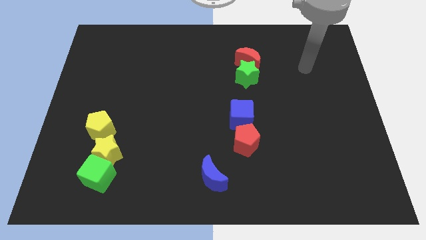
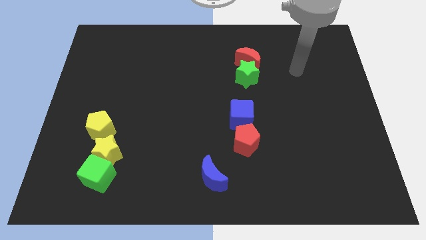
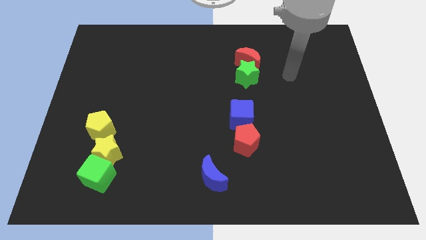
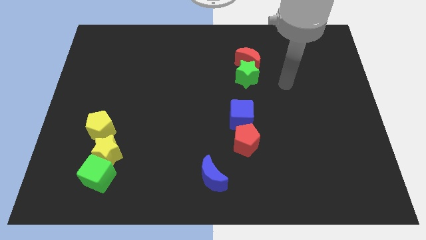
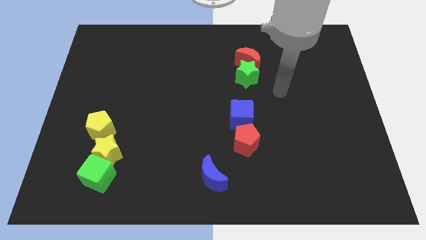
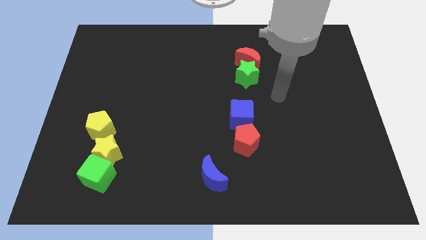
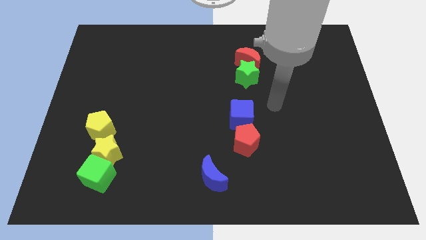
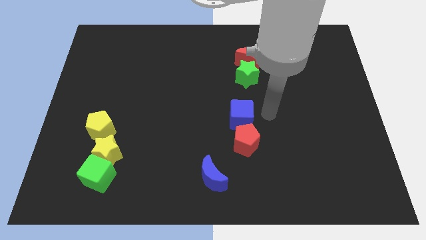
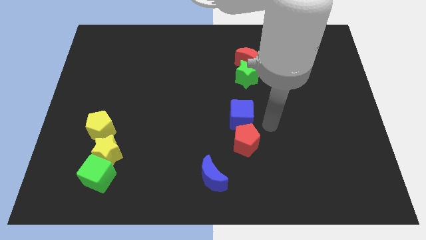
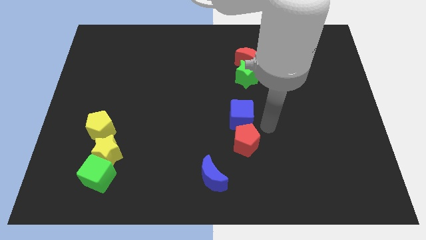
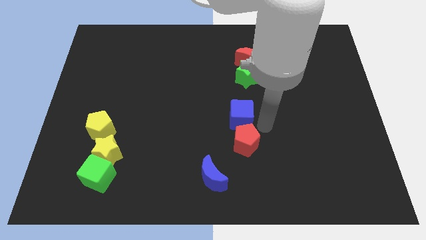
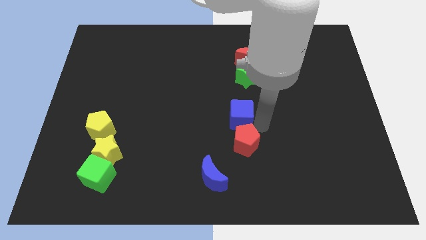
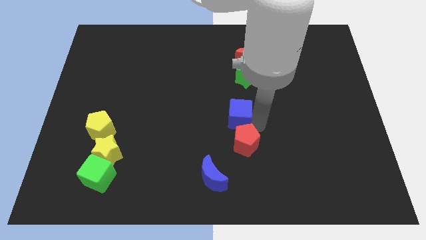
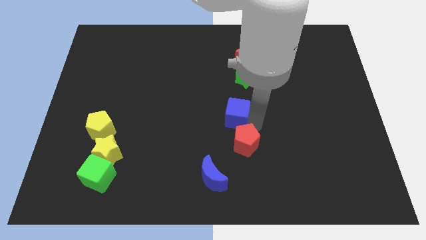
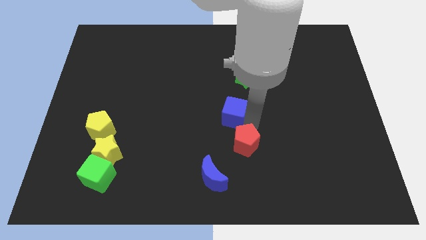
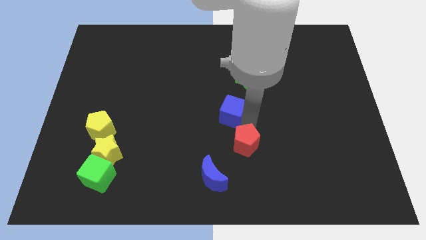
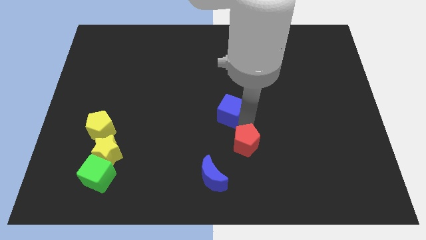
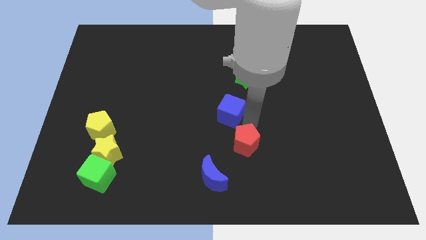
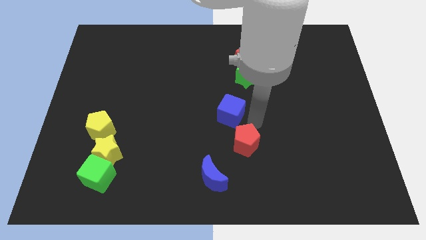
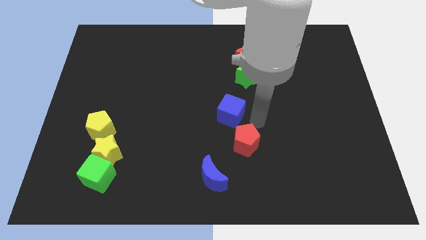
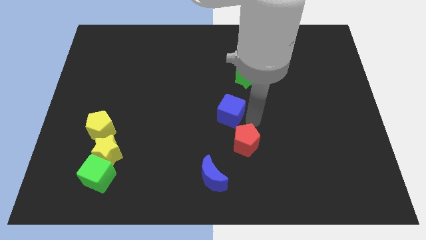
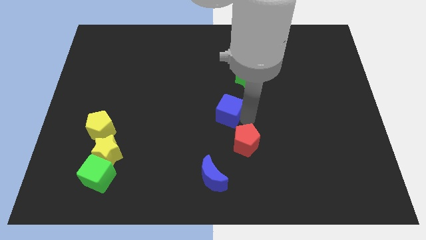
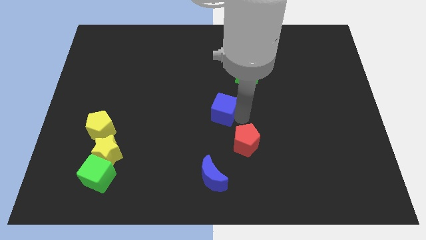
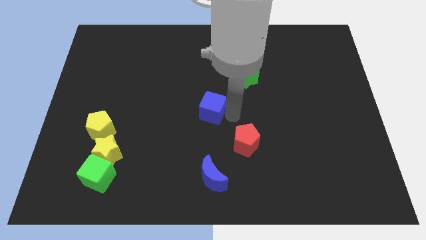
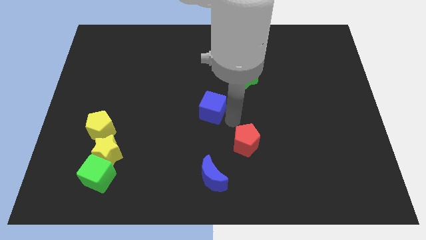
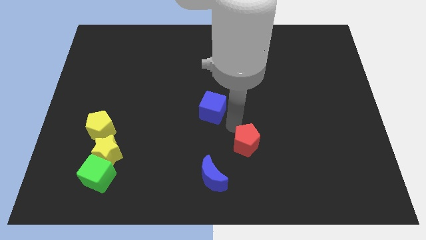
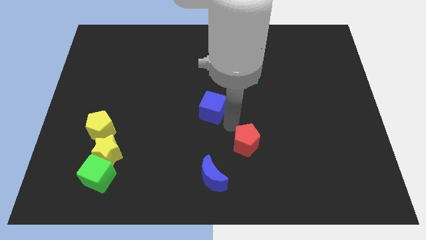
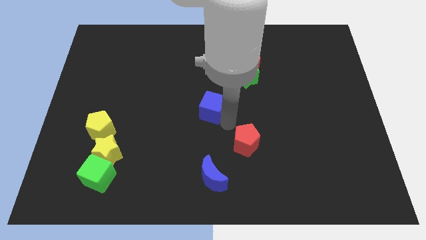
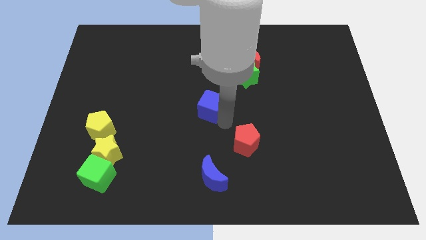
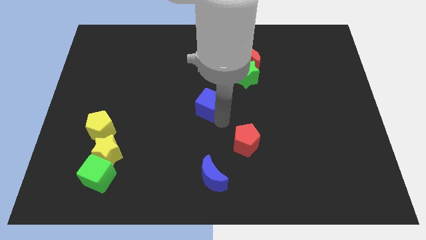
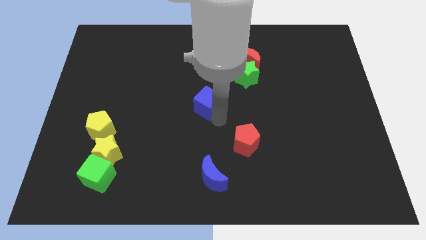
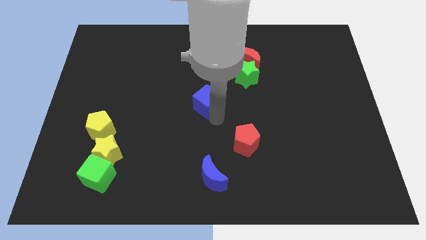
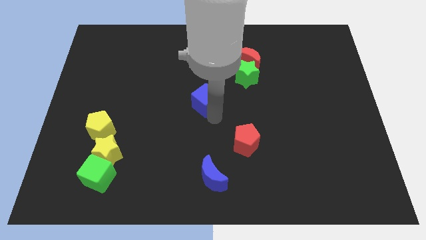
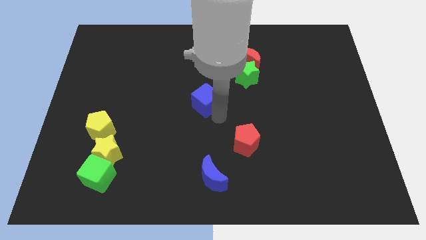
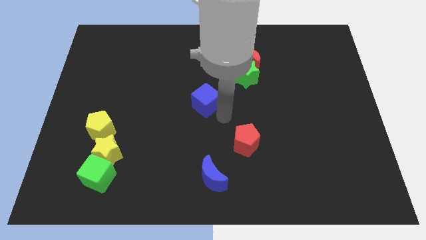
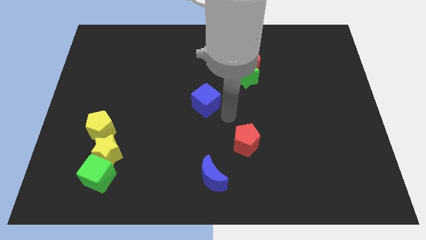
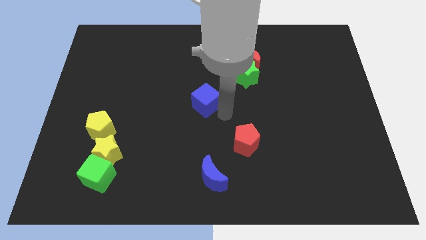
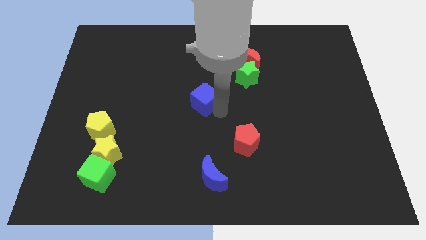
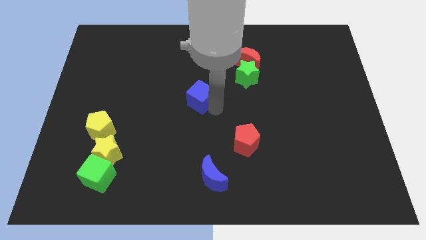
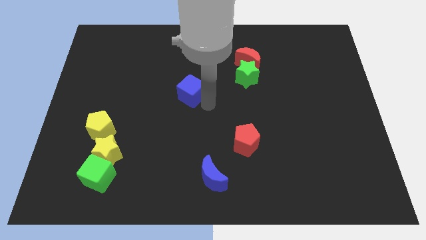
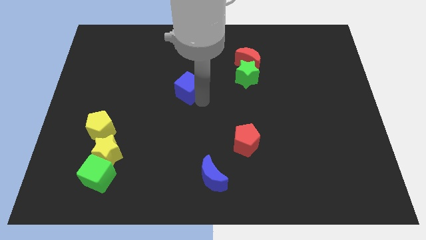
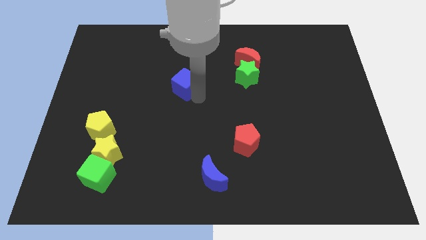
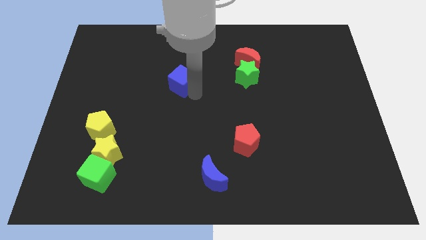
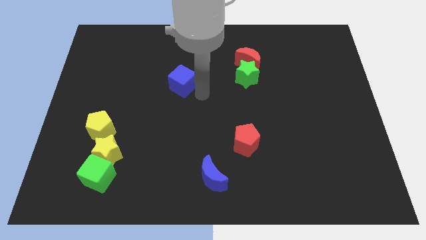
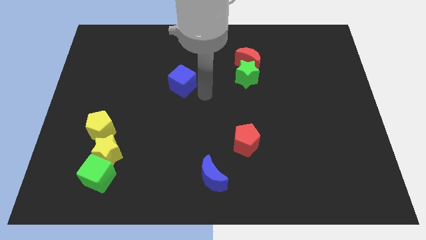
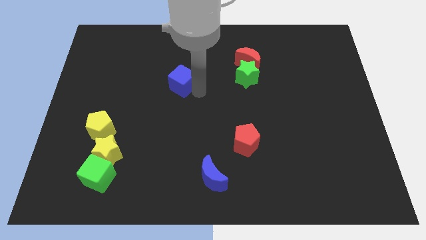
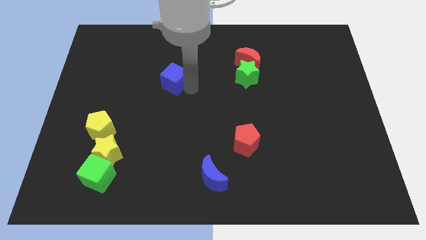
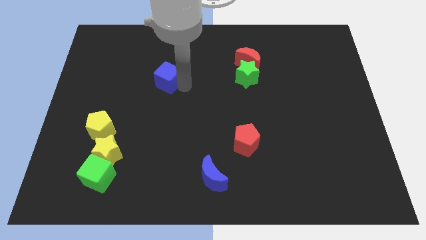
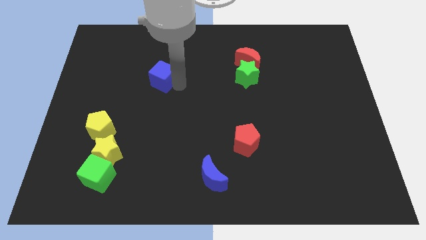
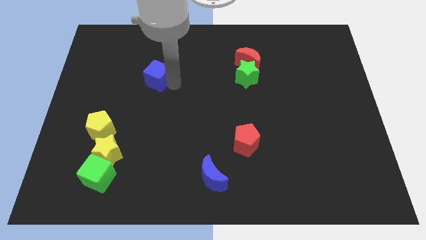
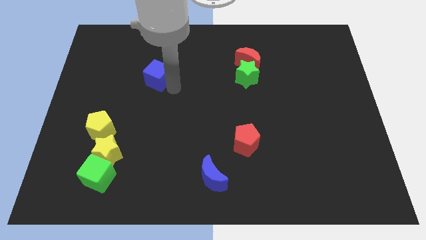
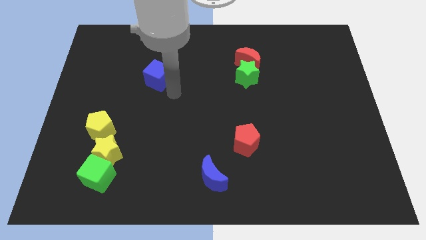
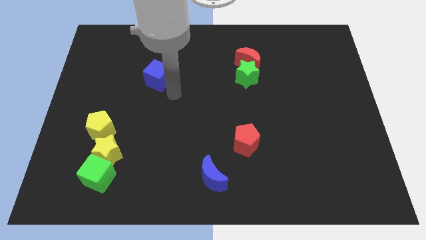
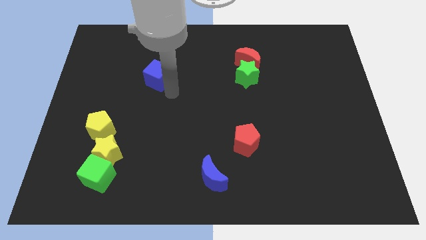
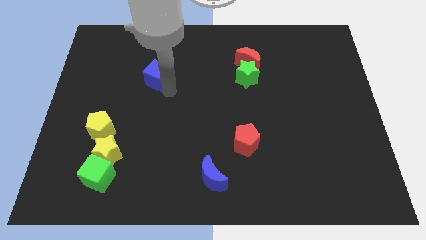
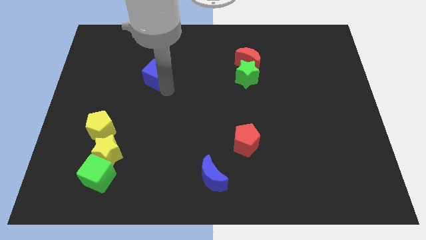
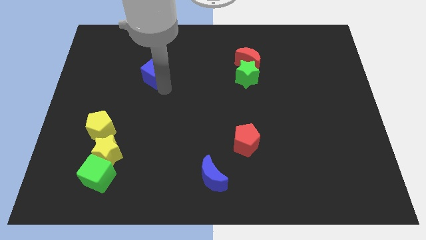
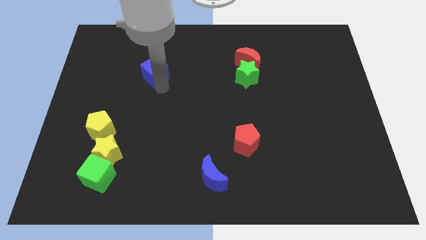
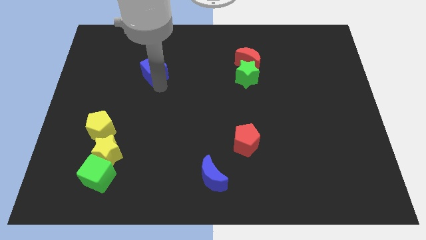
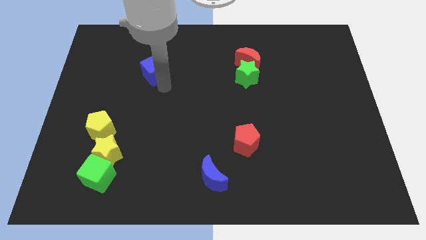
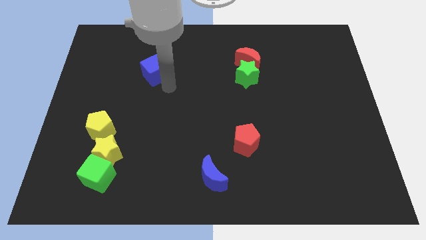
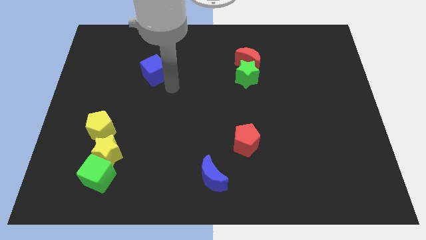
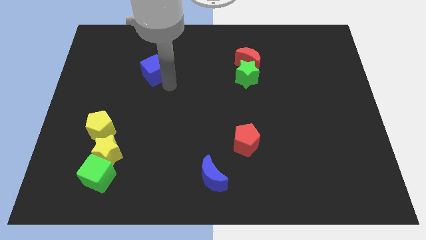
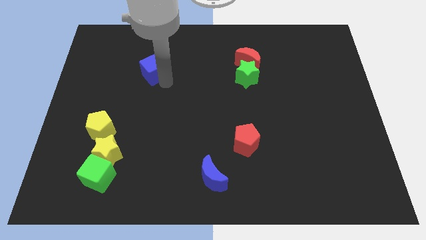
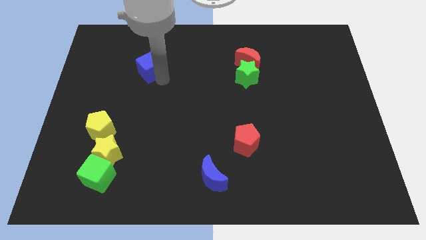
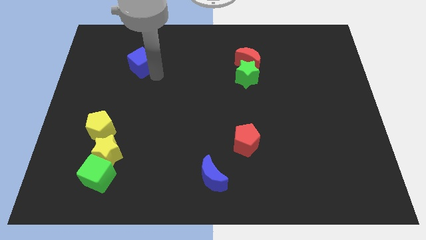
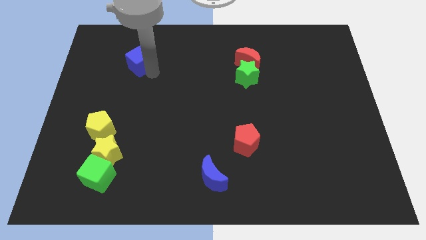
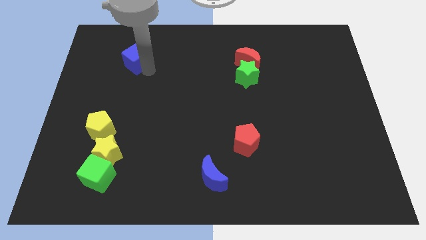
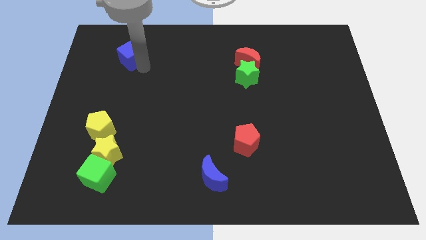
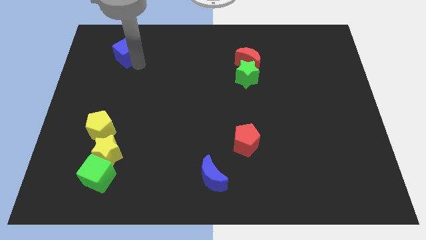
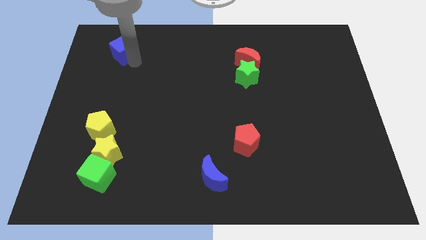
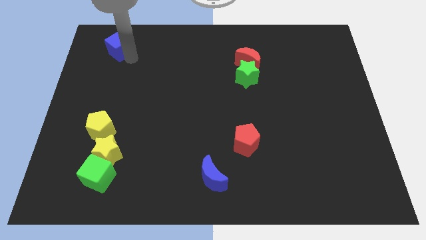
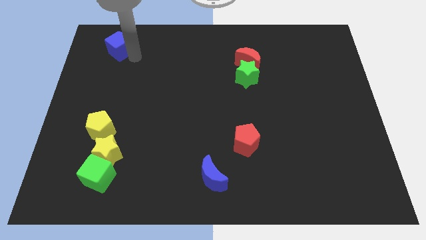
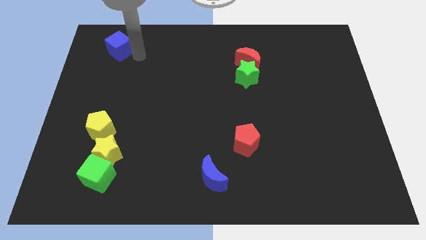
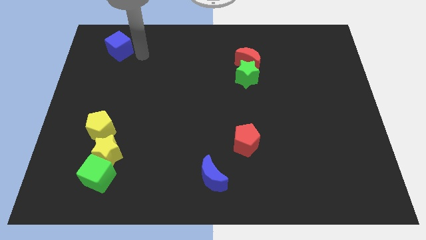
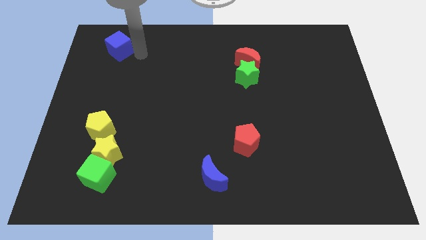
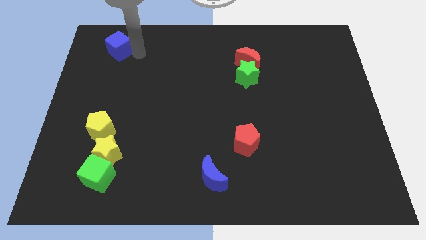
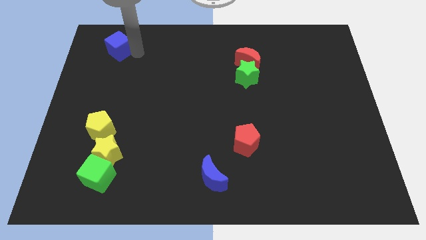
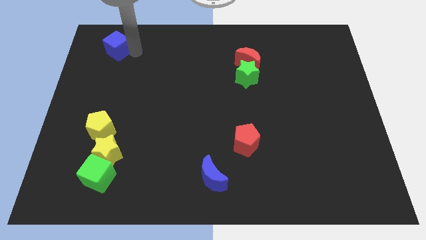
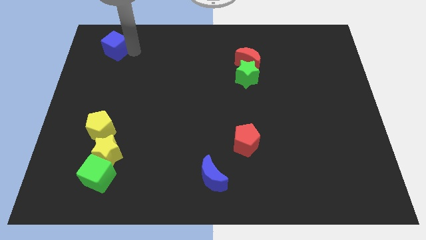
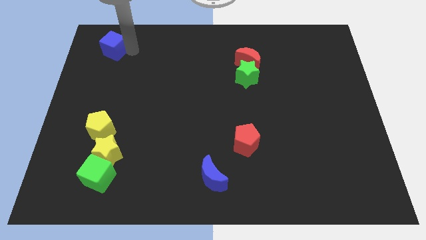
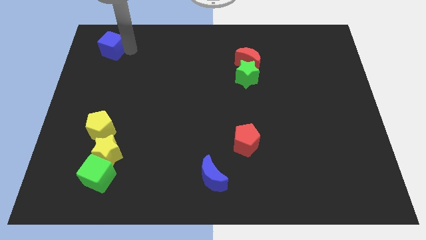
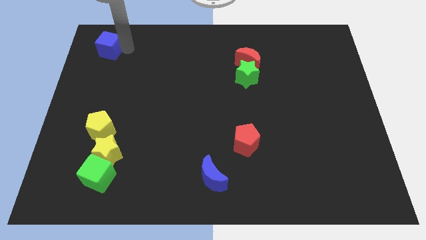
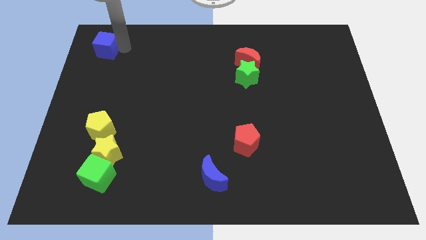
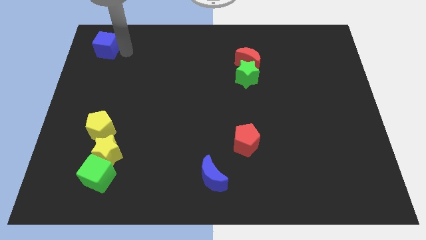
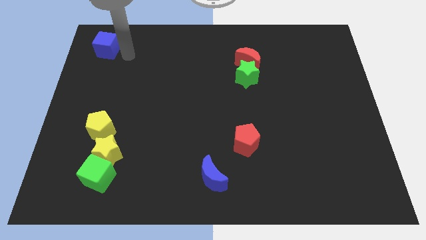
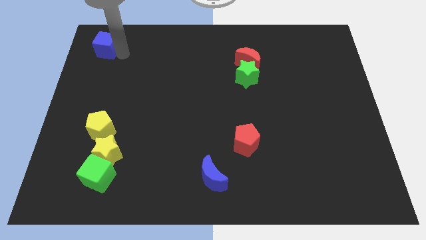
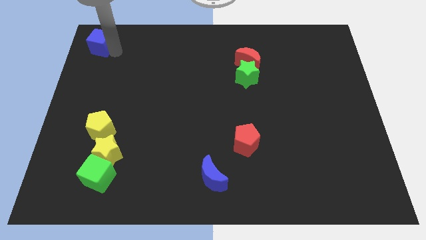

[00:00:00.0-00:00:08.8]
slide the blue cube to the top left
